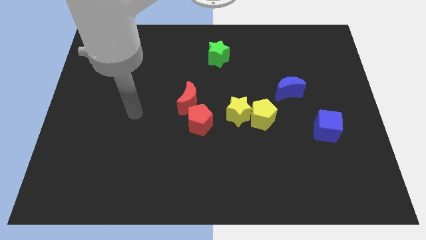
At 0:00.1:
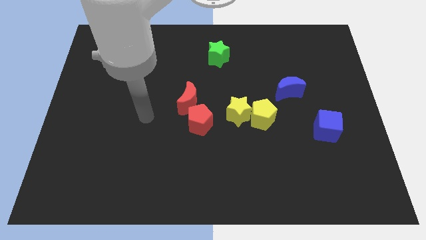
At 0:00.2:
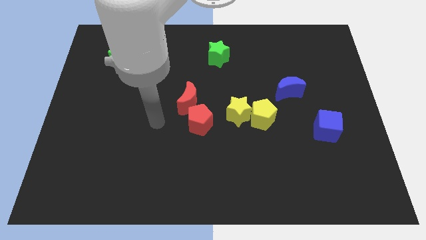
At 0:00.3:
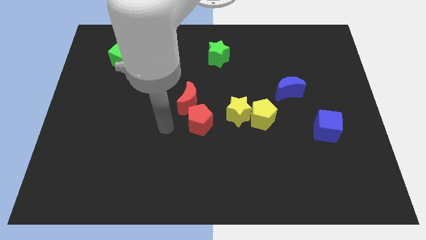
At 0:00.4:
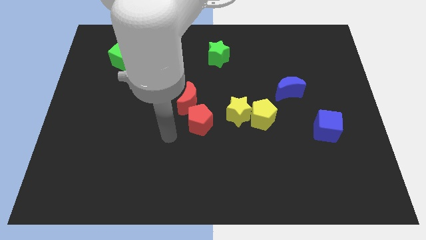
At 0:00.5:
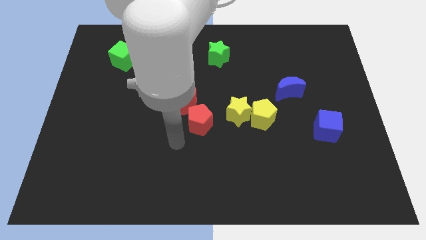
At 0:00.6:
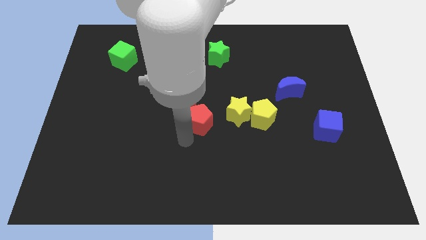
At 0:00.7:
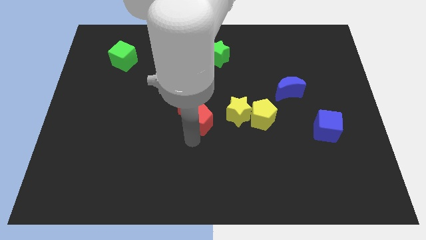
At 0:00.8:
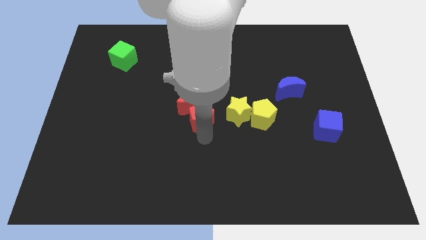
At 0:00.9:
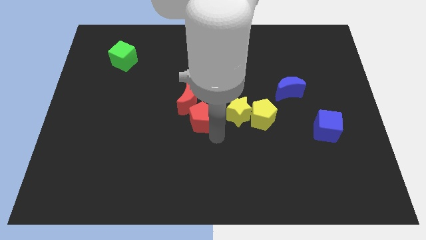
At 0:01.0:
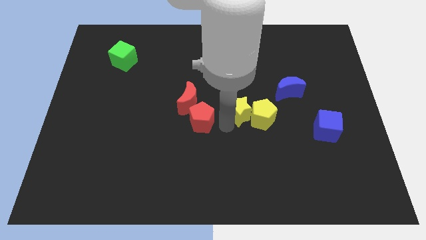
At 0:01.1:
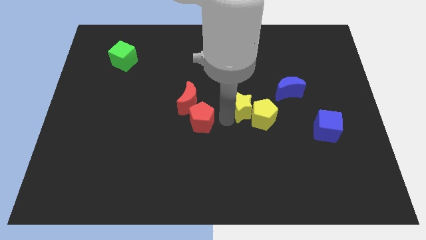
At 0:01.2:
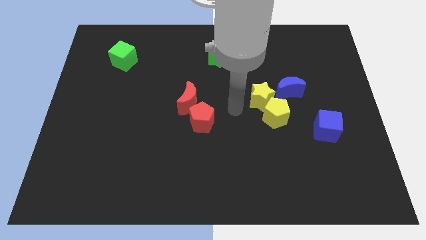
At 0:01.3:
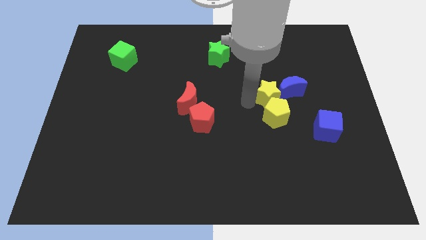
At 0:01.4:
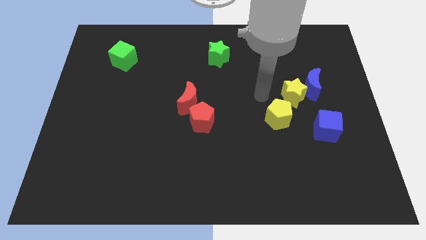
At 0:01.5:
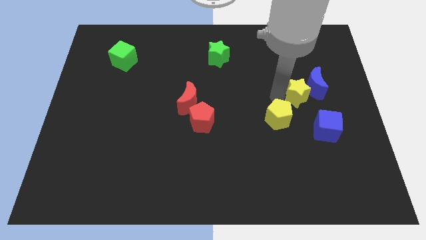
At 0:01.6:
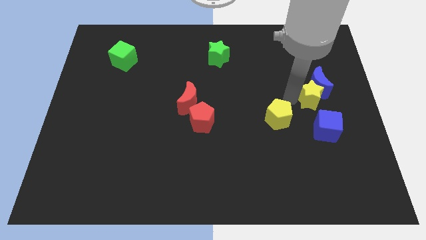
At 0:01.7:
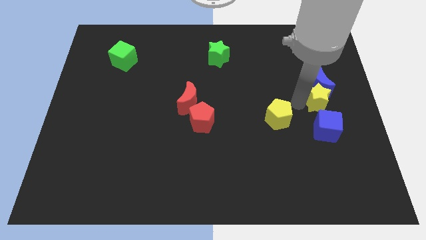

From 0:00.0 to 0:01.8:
move the yellow pentagon away from the yellow star

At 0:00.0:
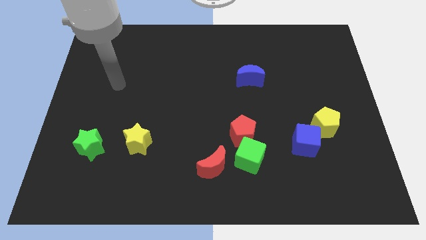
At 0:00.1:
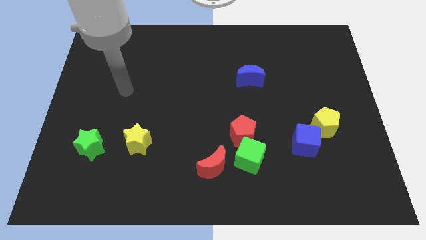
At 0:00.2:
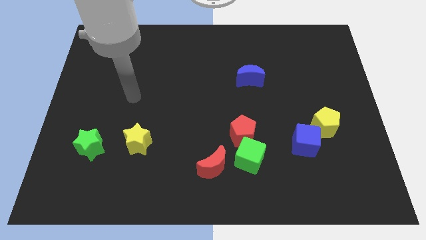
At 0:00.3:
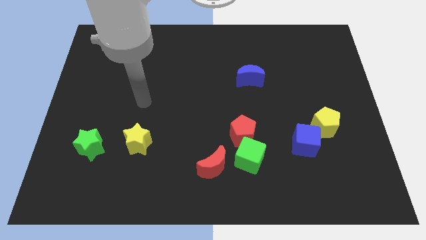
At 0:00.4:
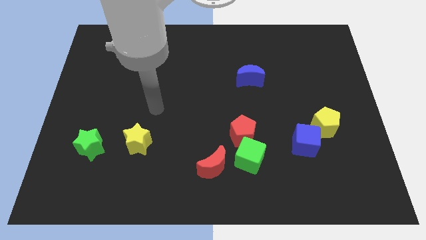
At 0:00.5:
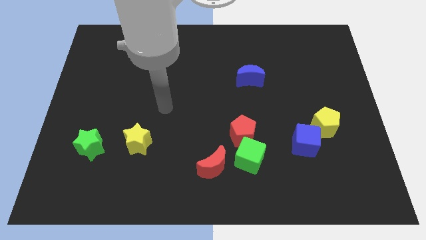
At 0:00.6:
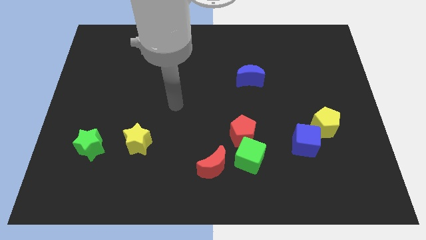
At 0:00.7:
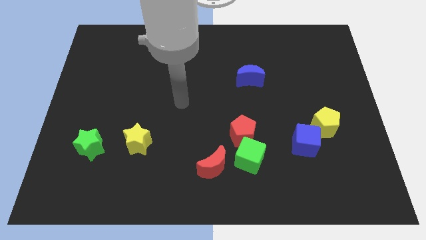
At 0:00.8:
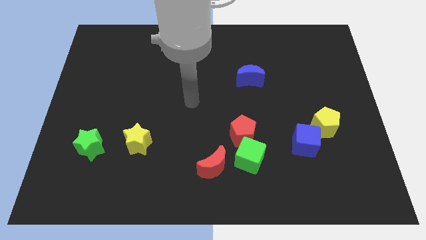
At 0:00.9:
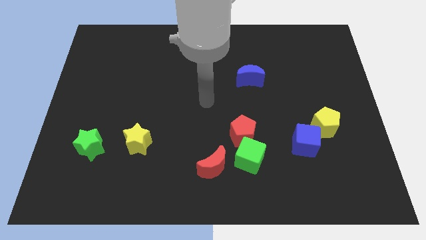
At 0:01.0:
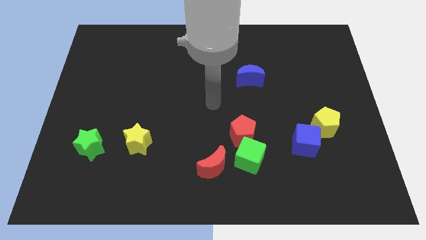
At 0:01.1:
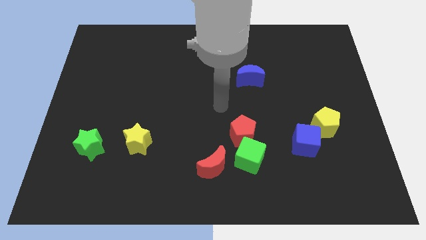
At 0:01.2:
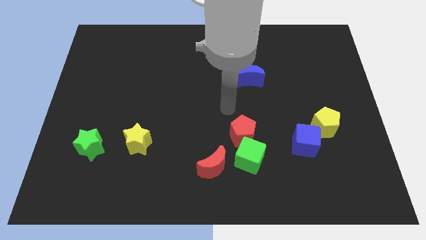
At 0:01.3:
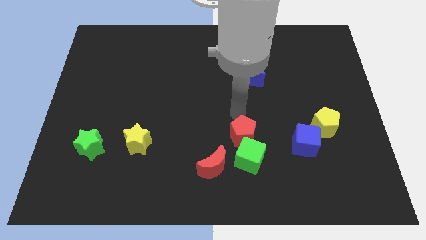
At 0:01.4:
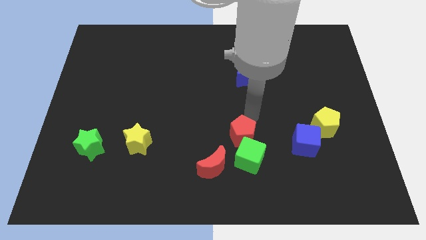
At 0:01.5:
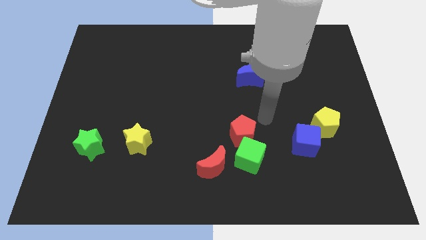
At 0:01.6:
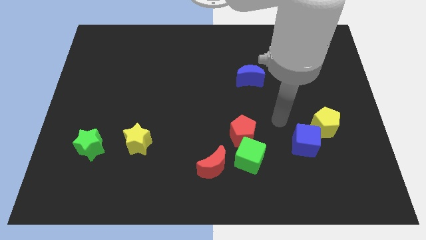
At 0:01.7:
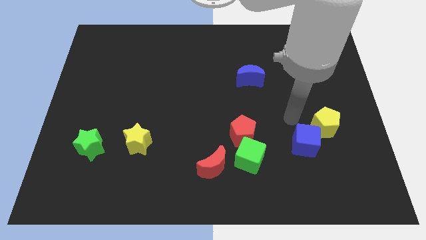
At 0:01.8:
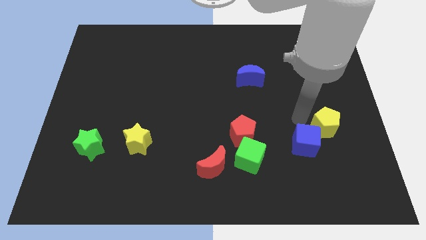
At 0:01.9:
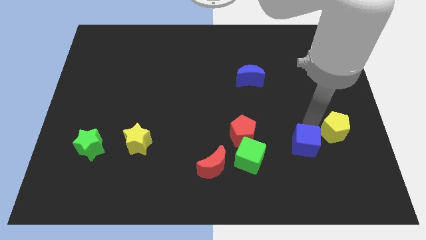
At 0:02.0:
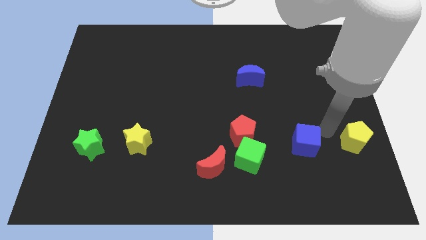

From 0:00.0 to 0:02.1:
separate the blue cube from the yellow pentagon

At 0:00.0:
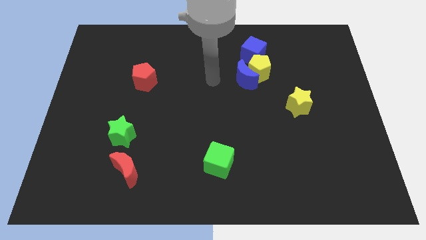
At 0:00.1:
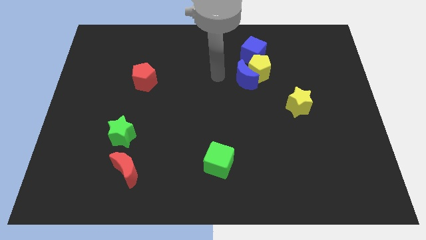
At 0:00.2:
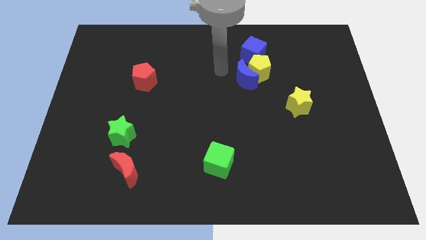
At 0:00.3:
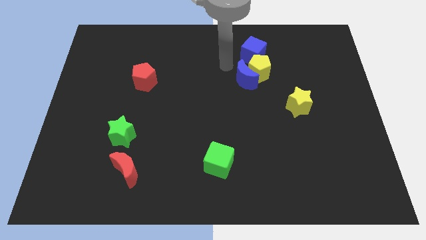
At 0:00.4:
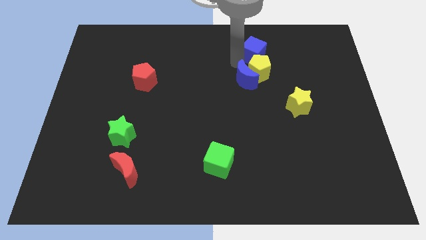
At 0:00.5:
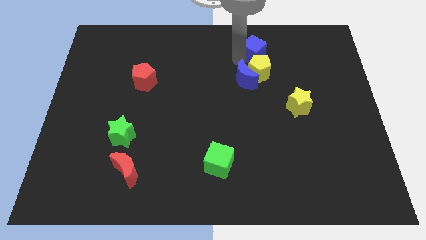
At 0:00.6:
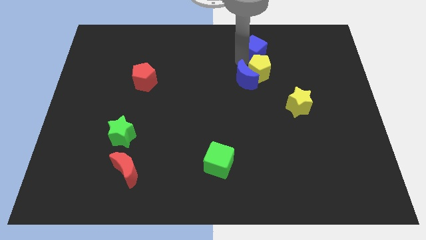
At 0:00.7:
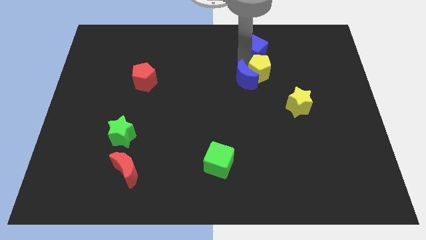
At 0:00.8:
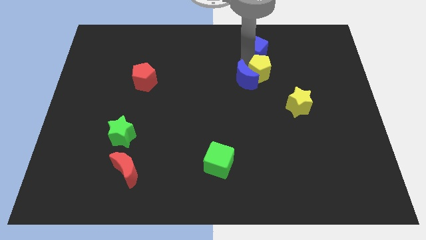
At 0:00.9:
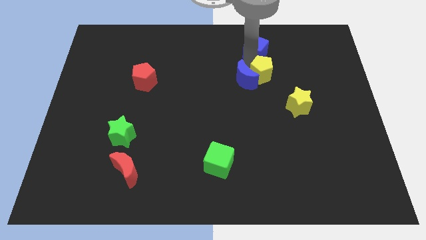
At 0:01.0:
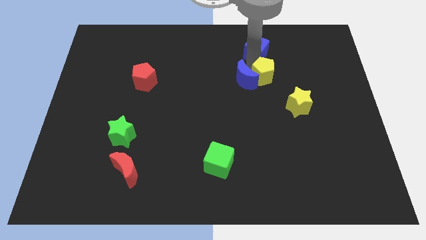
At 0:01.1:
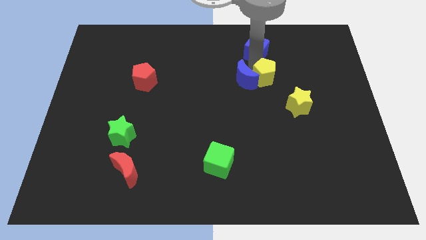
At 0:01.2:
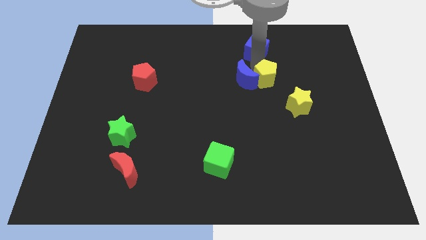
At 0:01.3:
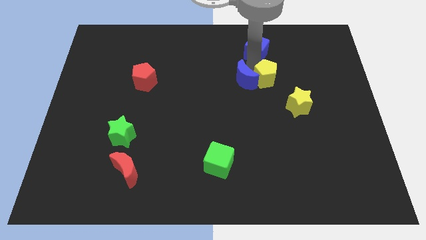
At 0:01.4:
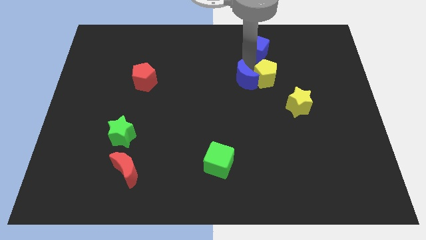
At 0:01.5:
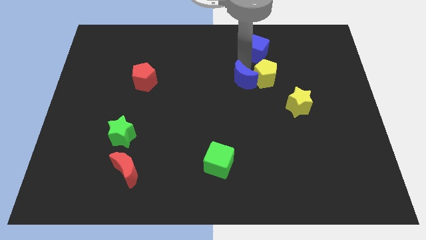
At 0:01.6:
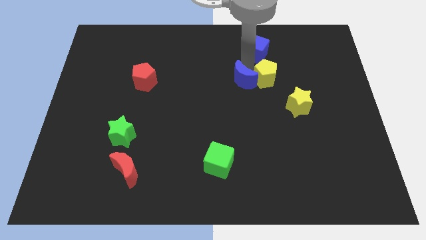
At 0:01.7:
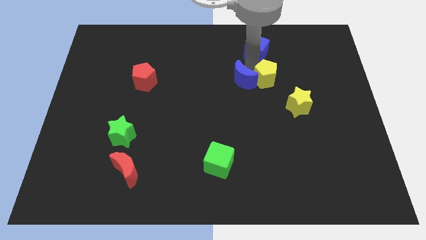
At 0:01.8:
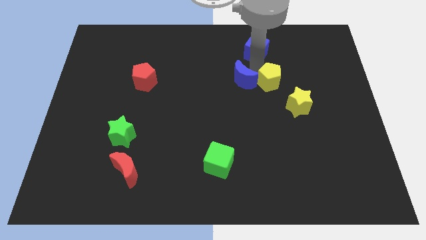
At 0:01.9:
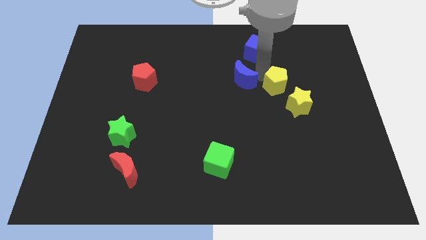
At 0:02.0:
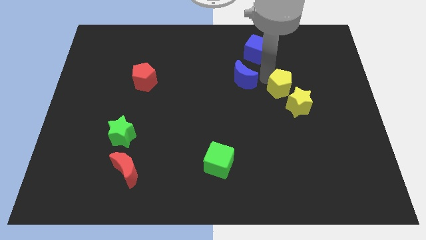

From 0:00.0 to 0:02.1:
move the yellow pentagon away from the blue moon and blue cube

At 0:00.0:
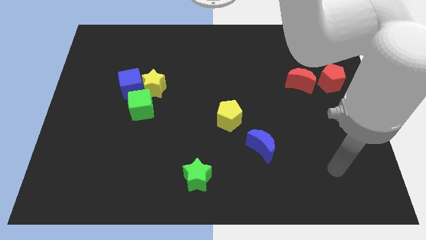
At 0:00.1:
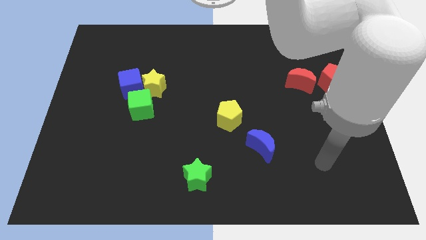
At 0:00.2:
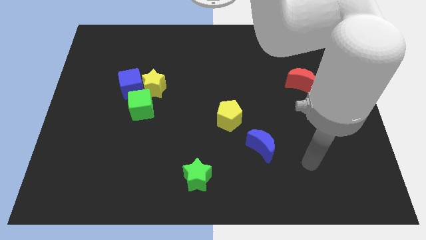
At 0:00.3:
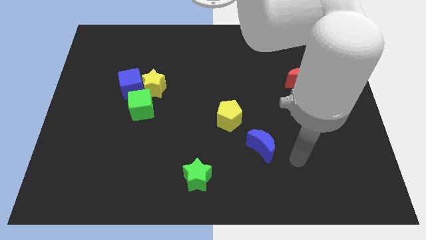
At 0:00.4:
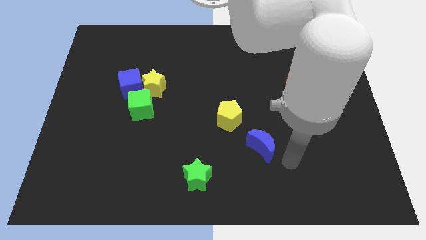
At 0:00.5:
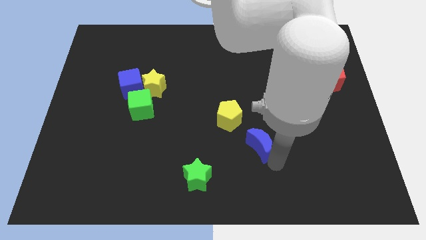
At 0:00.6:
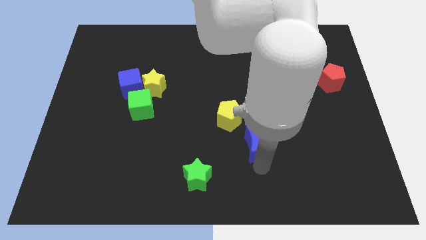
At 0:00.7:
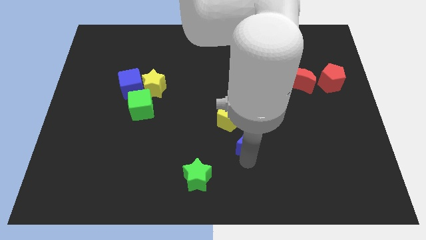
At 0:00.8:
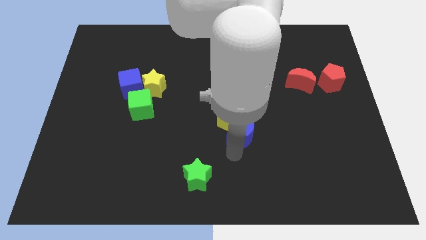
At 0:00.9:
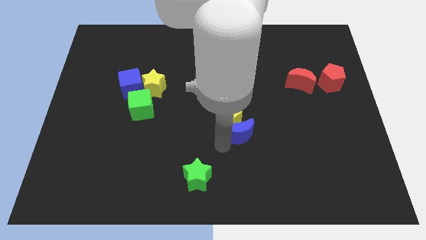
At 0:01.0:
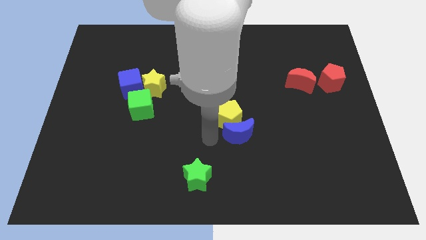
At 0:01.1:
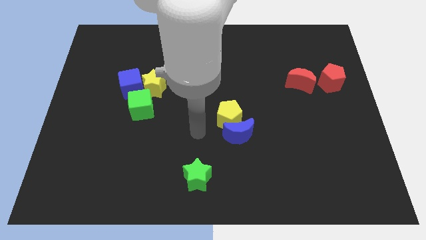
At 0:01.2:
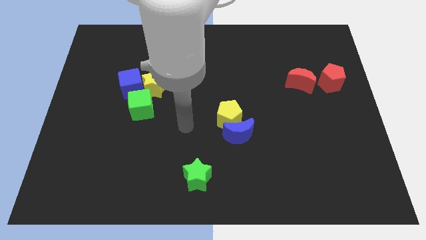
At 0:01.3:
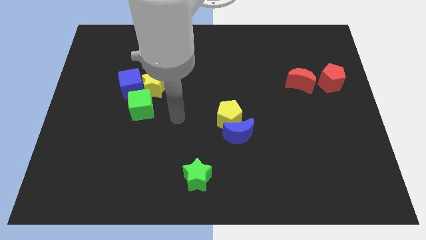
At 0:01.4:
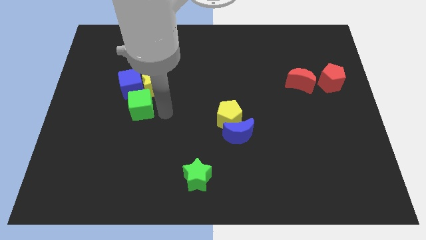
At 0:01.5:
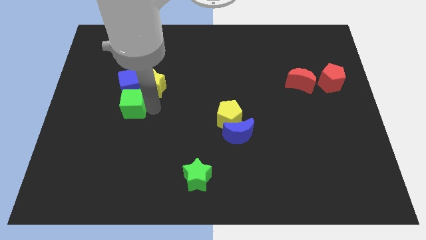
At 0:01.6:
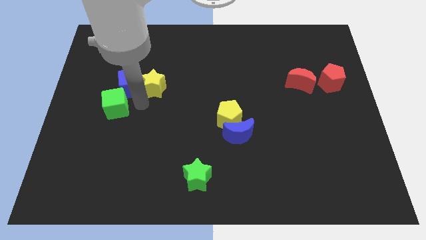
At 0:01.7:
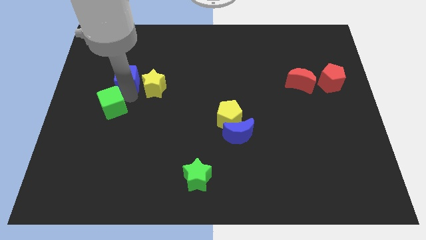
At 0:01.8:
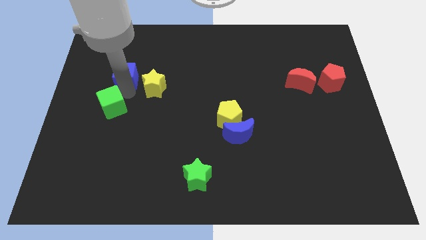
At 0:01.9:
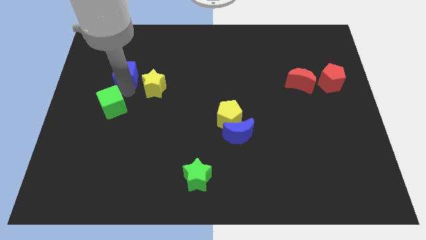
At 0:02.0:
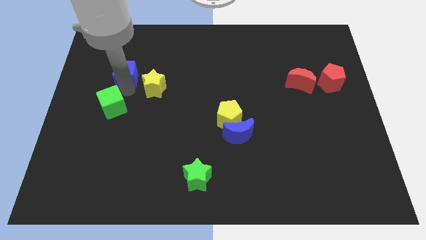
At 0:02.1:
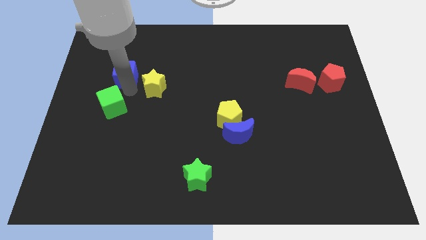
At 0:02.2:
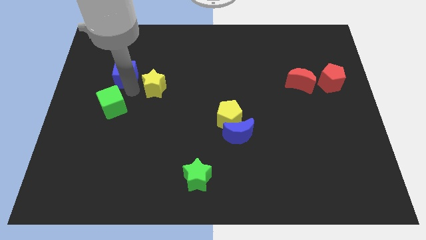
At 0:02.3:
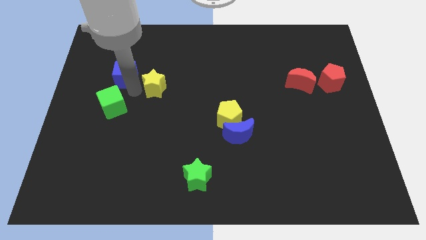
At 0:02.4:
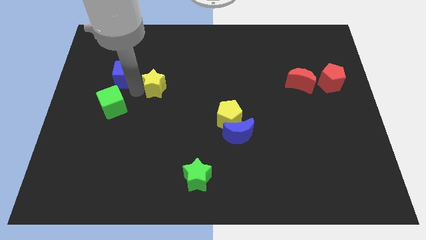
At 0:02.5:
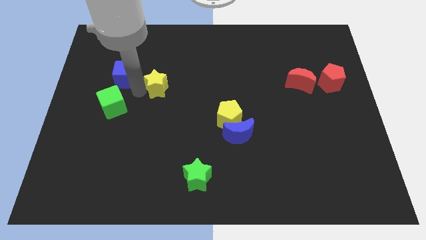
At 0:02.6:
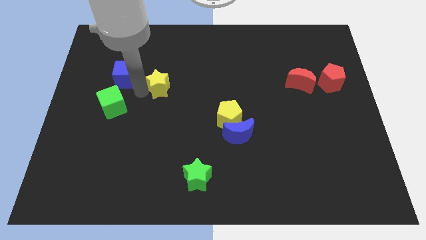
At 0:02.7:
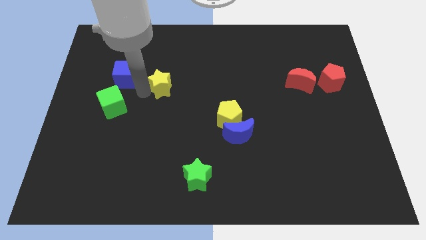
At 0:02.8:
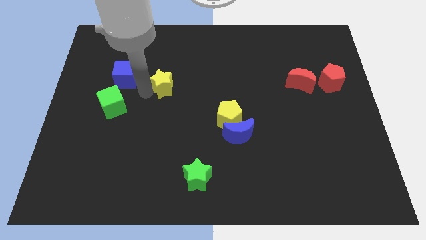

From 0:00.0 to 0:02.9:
move the yellow star away from the blue cube and green cube

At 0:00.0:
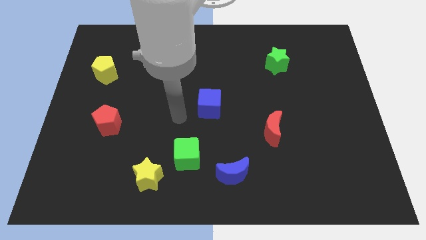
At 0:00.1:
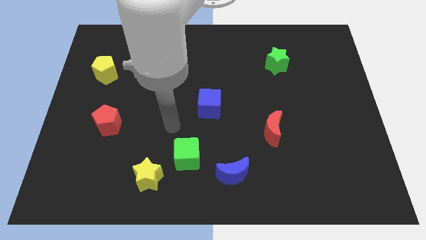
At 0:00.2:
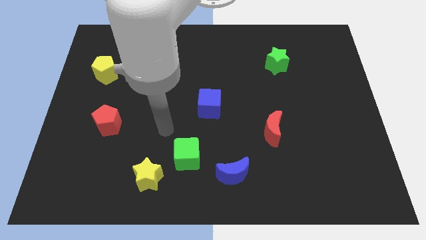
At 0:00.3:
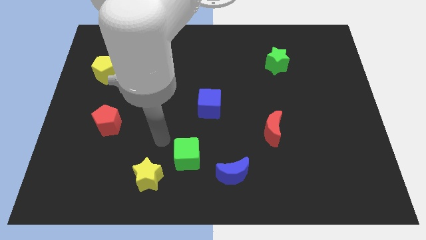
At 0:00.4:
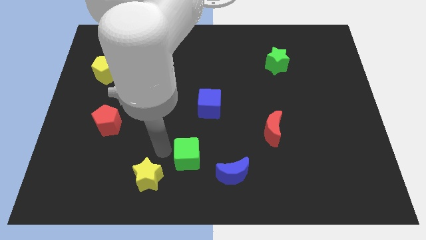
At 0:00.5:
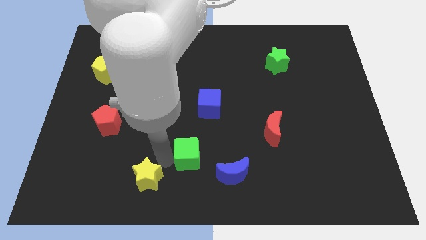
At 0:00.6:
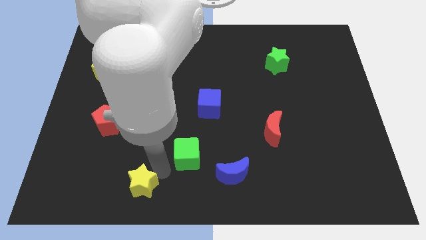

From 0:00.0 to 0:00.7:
separate the green cube from the yellow star
